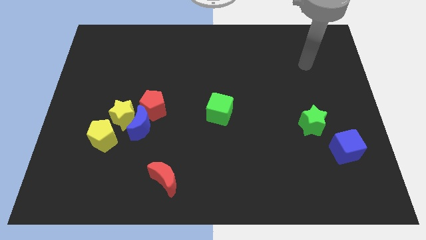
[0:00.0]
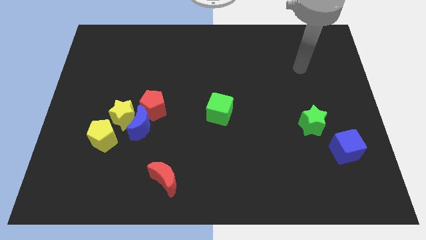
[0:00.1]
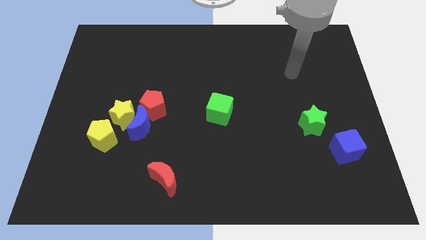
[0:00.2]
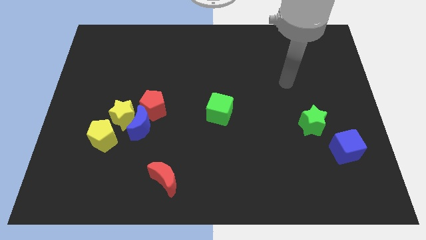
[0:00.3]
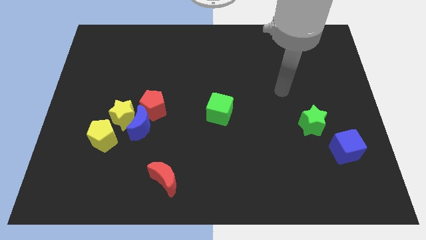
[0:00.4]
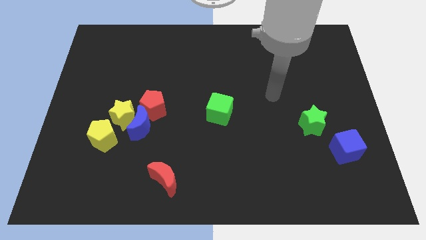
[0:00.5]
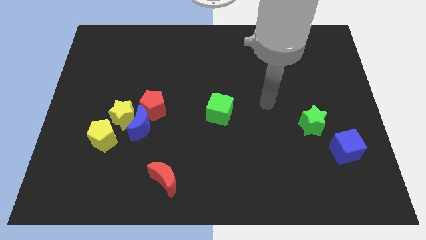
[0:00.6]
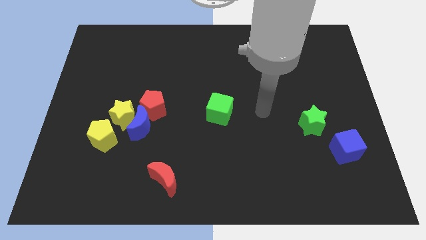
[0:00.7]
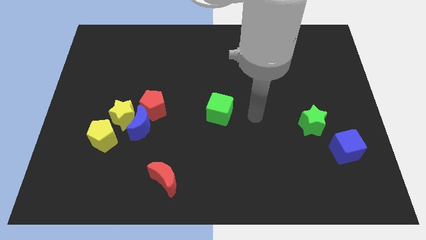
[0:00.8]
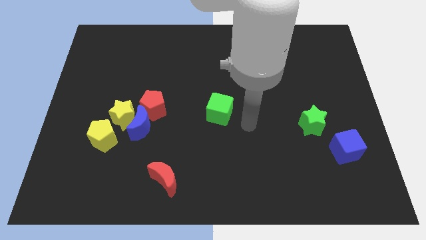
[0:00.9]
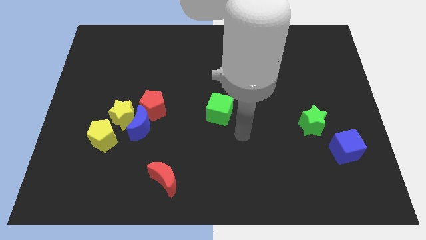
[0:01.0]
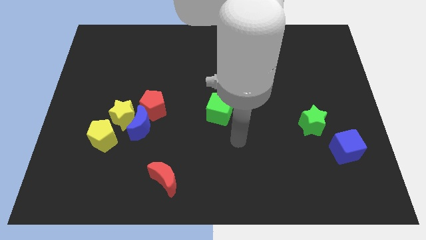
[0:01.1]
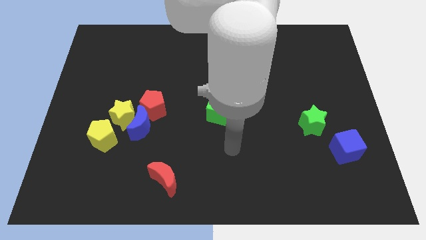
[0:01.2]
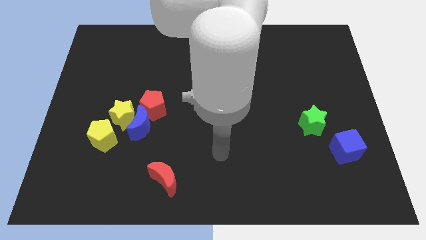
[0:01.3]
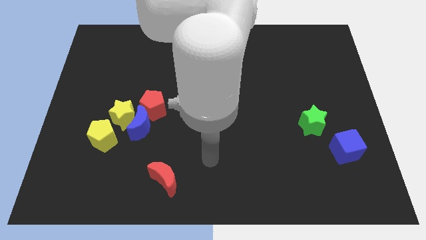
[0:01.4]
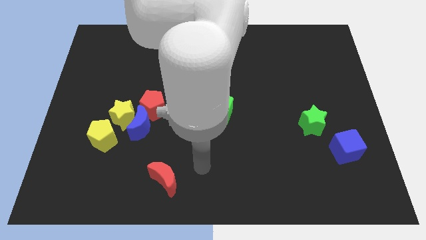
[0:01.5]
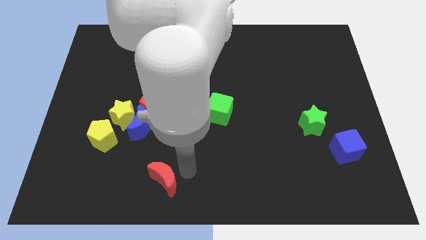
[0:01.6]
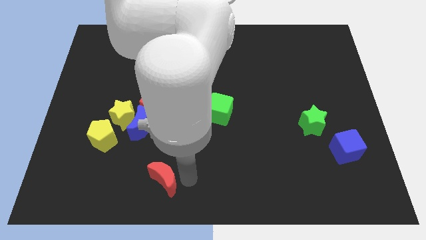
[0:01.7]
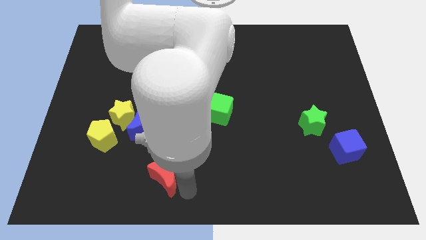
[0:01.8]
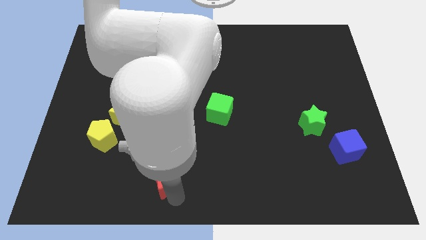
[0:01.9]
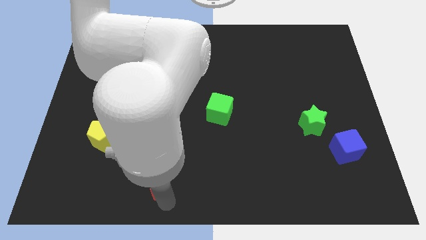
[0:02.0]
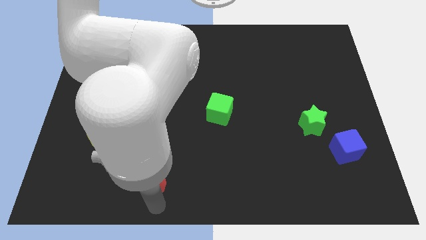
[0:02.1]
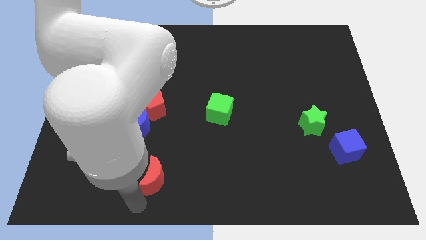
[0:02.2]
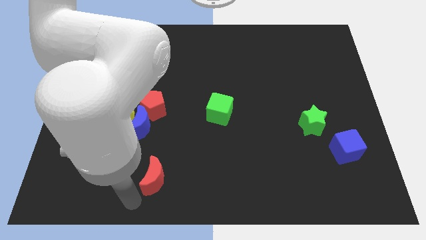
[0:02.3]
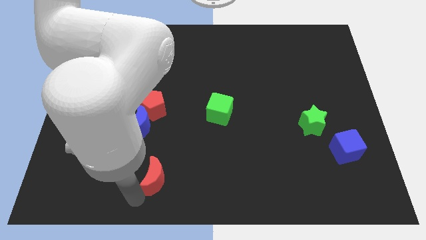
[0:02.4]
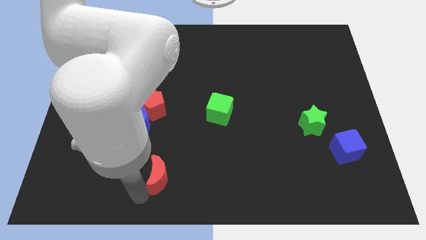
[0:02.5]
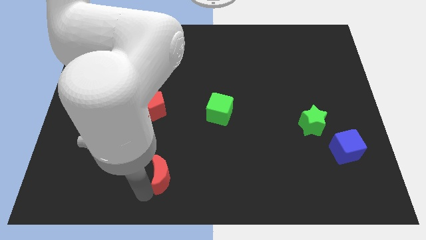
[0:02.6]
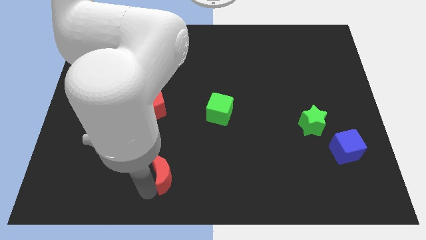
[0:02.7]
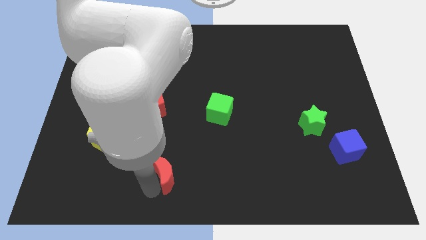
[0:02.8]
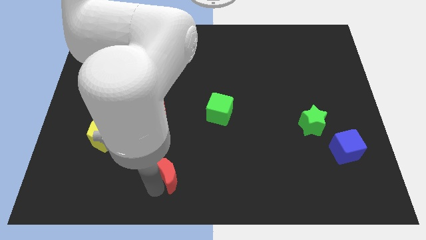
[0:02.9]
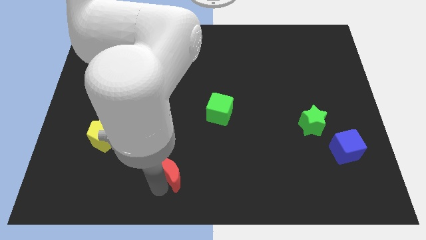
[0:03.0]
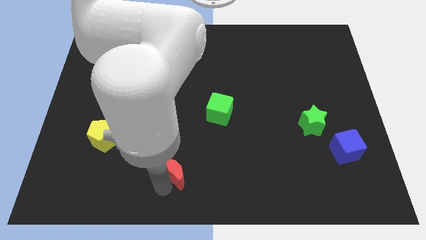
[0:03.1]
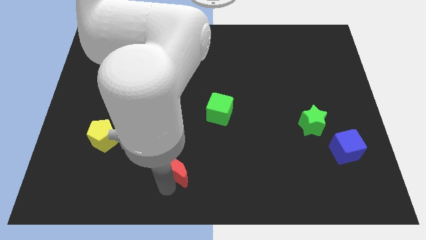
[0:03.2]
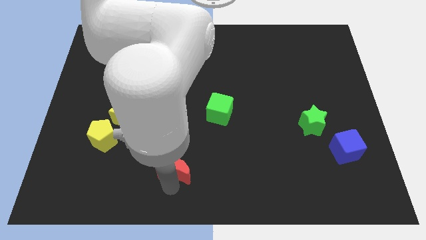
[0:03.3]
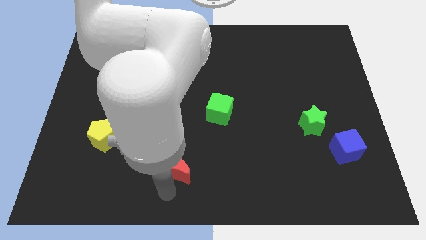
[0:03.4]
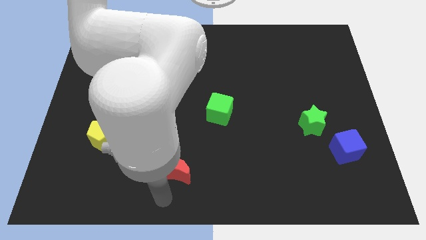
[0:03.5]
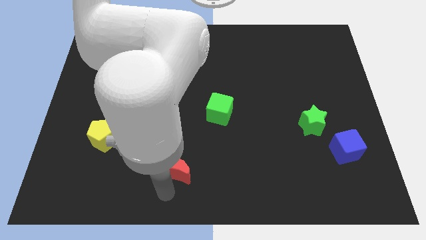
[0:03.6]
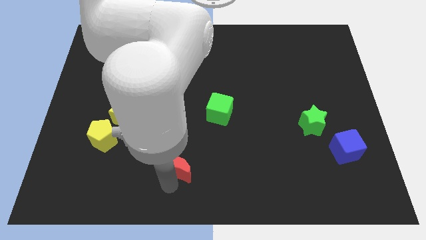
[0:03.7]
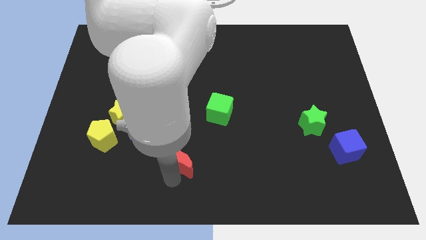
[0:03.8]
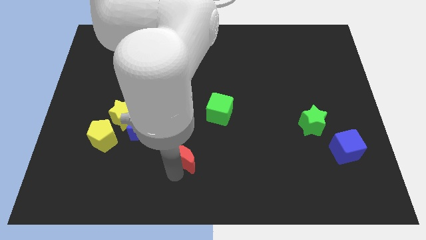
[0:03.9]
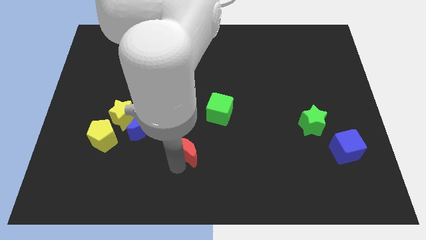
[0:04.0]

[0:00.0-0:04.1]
slide the red moon a bit diagonally upwards and right

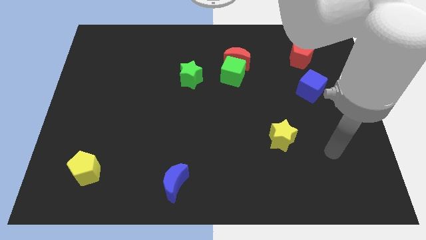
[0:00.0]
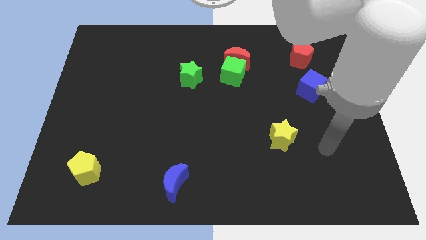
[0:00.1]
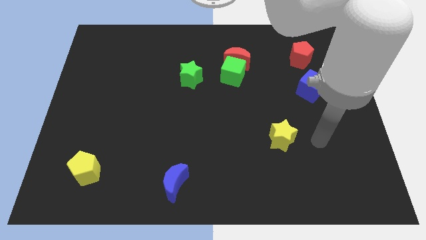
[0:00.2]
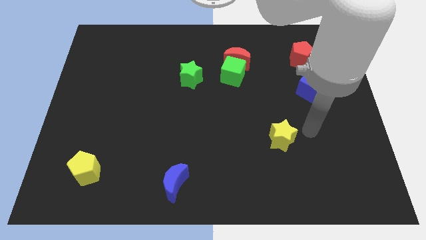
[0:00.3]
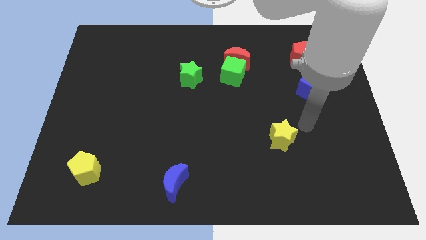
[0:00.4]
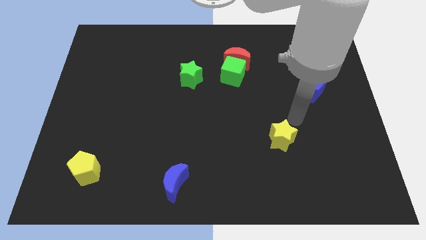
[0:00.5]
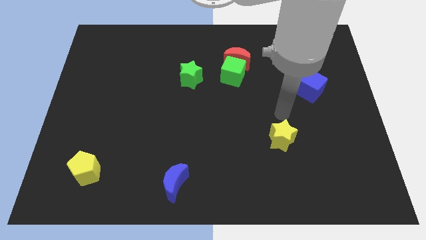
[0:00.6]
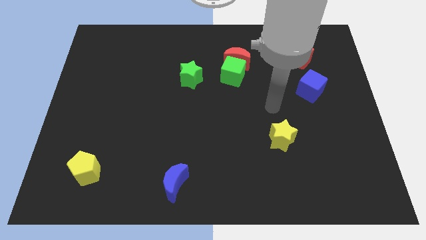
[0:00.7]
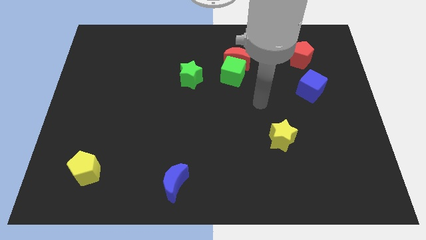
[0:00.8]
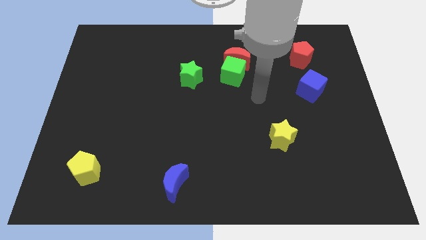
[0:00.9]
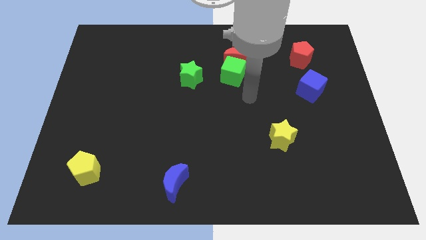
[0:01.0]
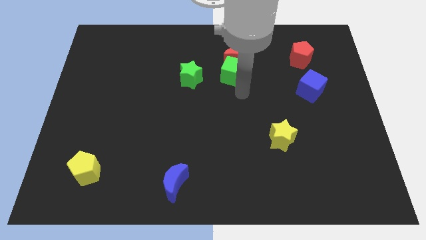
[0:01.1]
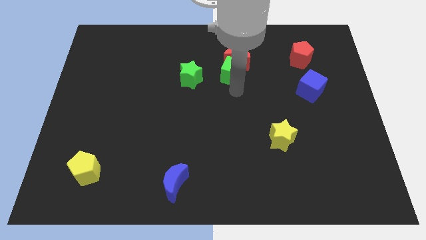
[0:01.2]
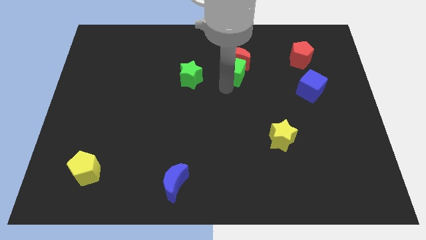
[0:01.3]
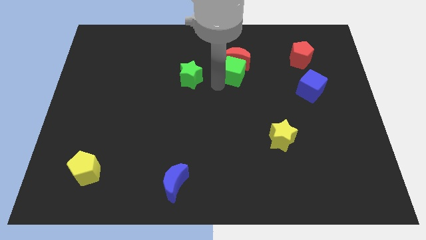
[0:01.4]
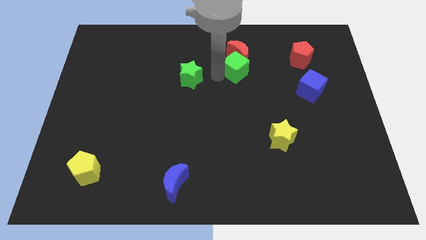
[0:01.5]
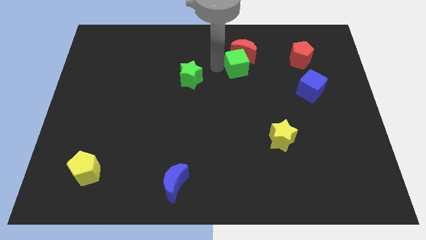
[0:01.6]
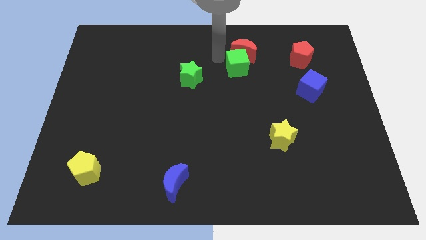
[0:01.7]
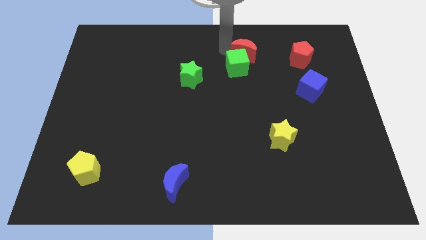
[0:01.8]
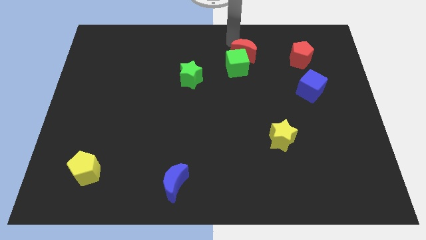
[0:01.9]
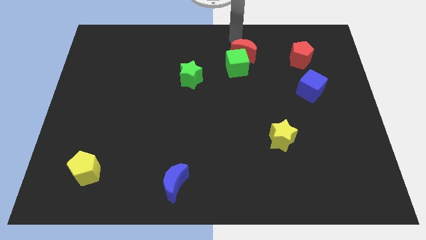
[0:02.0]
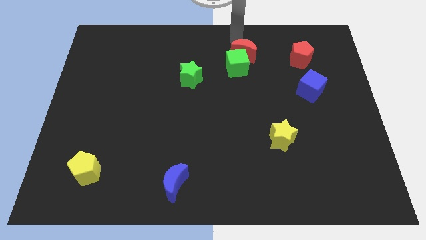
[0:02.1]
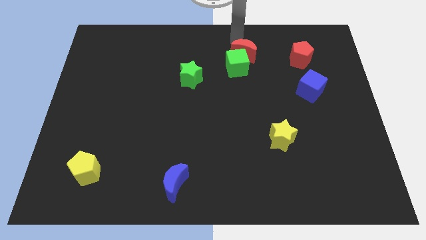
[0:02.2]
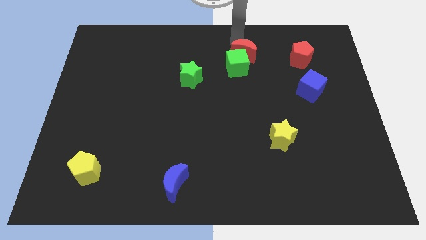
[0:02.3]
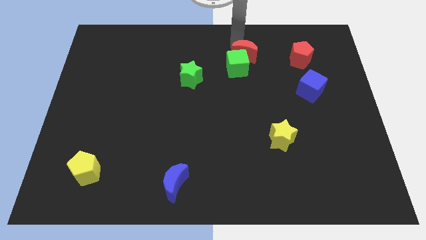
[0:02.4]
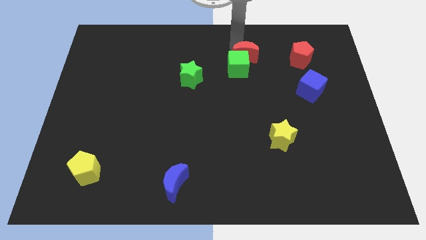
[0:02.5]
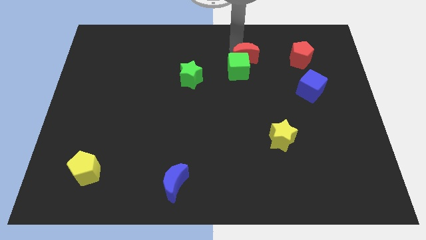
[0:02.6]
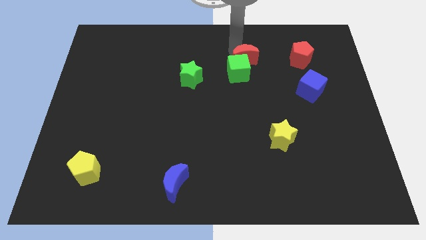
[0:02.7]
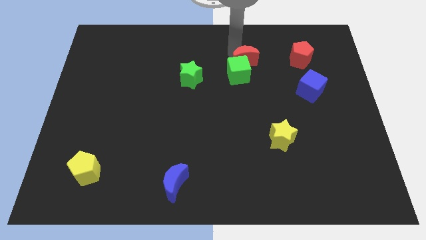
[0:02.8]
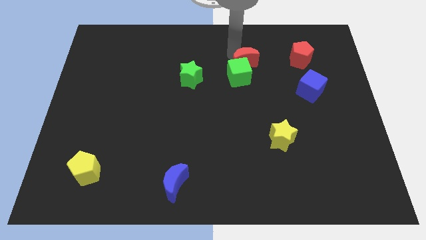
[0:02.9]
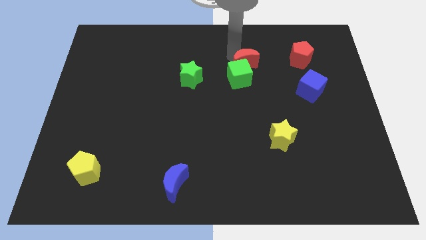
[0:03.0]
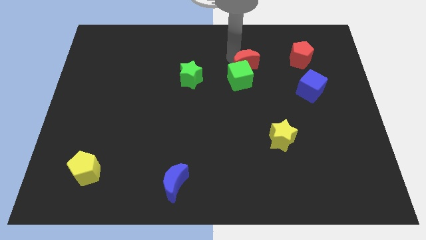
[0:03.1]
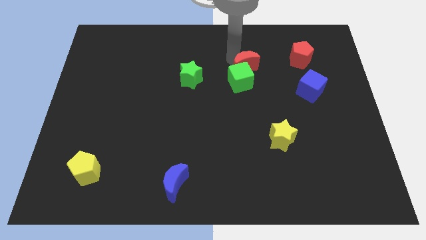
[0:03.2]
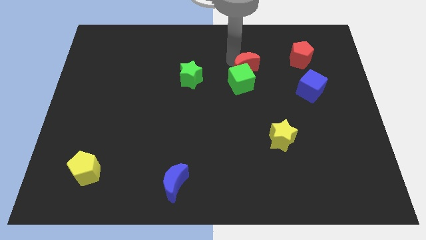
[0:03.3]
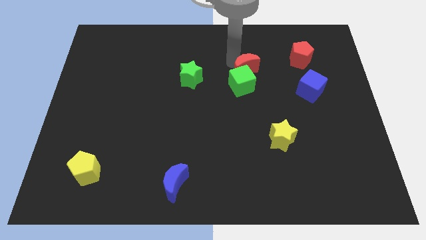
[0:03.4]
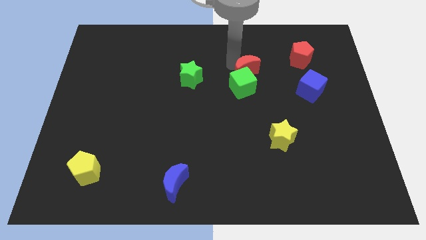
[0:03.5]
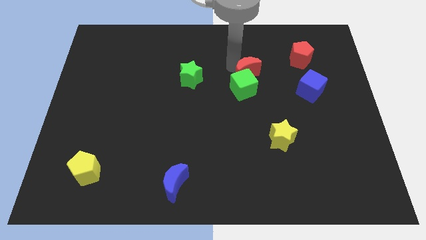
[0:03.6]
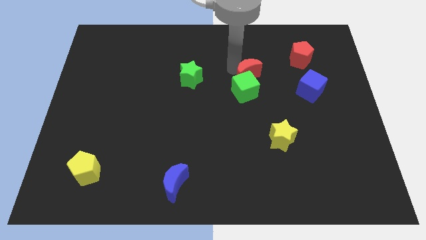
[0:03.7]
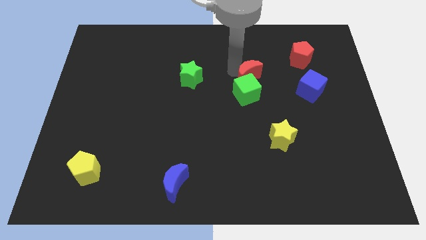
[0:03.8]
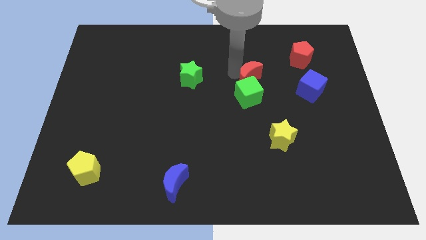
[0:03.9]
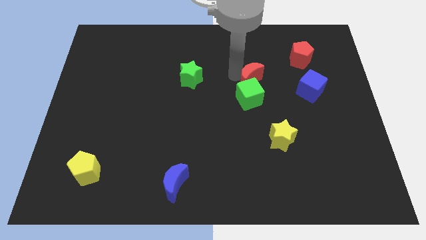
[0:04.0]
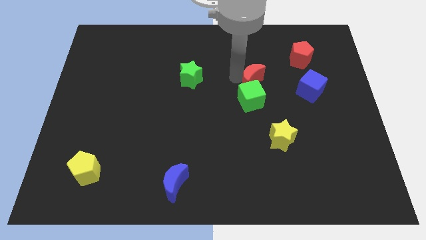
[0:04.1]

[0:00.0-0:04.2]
slide the red moon down and right diagonally a little
